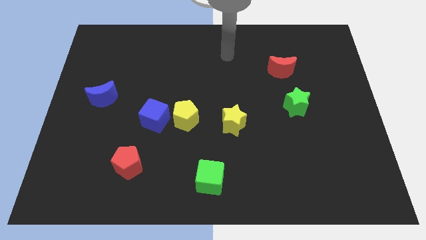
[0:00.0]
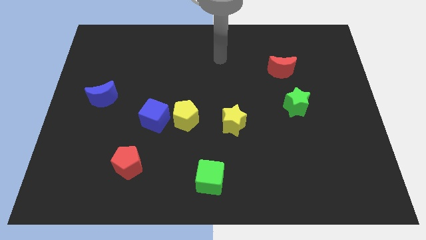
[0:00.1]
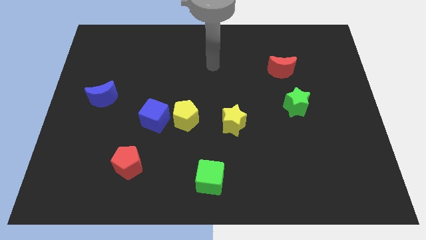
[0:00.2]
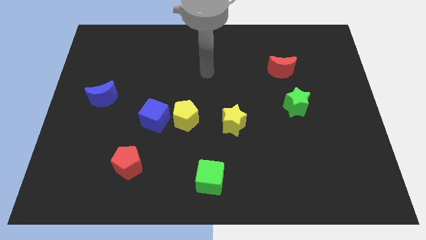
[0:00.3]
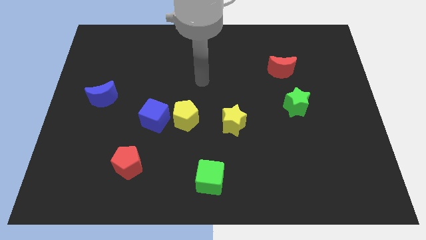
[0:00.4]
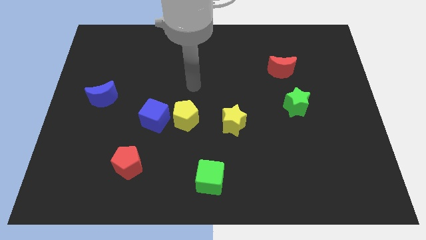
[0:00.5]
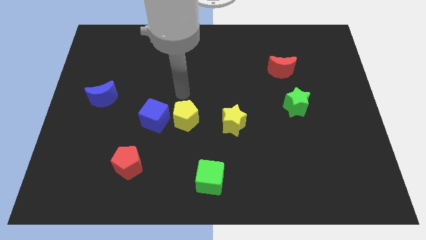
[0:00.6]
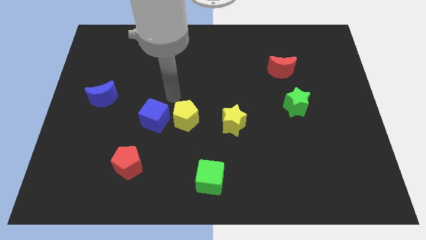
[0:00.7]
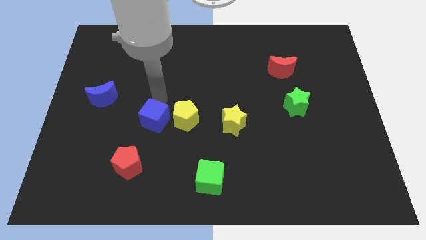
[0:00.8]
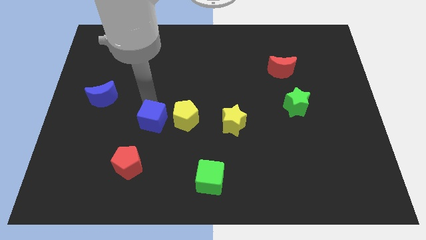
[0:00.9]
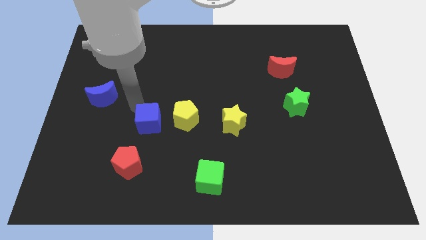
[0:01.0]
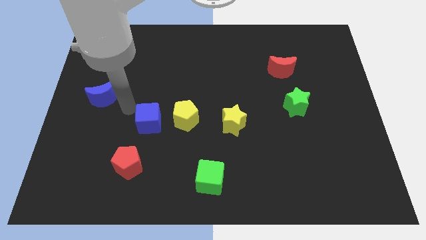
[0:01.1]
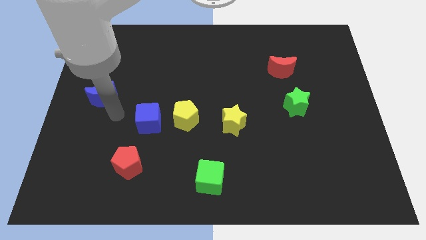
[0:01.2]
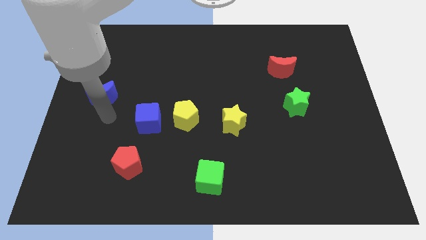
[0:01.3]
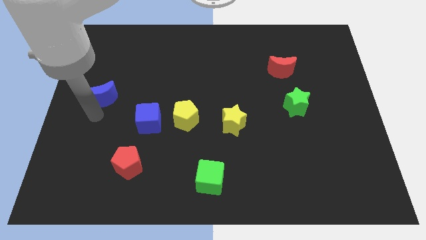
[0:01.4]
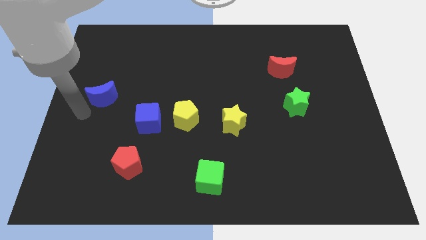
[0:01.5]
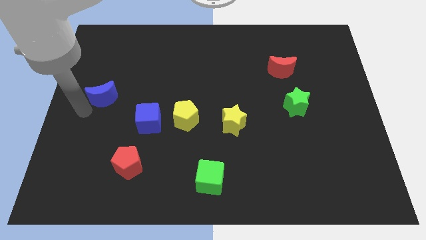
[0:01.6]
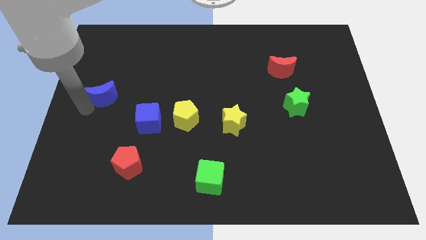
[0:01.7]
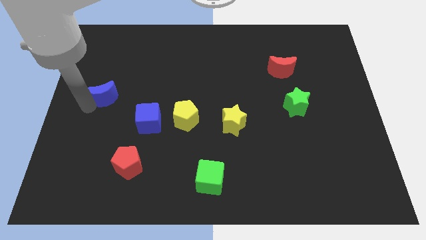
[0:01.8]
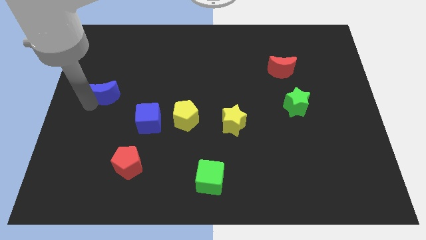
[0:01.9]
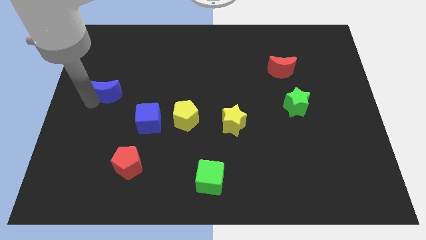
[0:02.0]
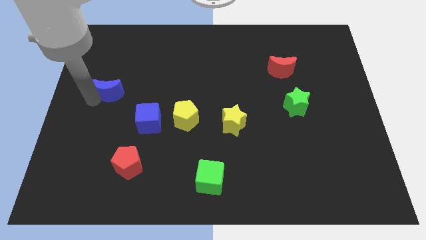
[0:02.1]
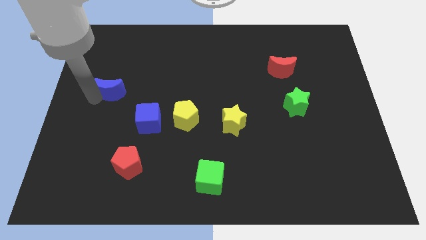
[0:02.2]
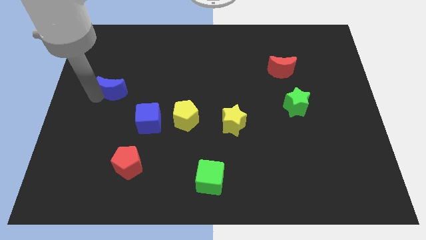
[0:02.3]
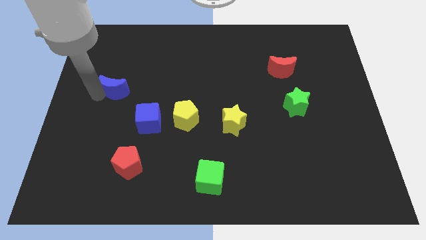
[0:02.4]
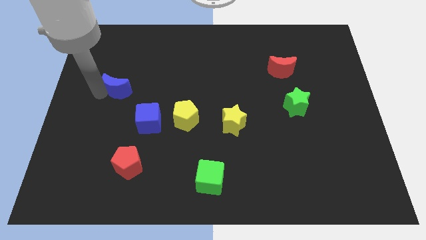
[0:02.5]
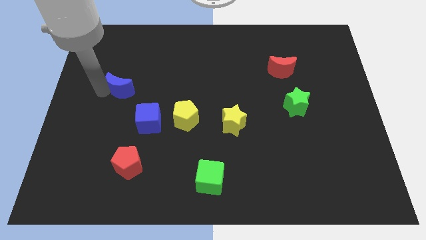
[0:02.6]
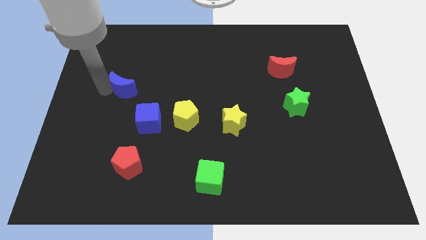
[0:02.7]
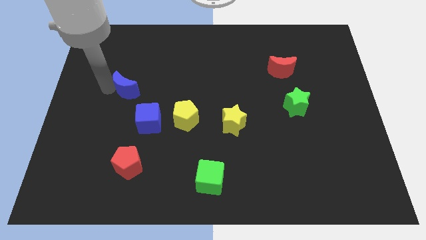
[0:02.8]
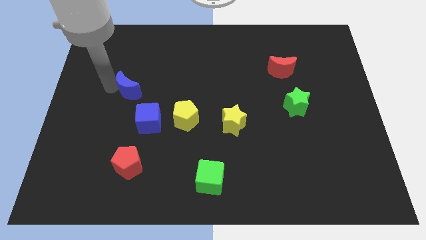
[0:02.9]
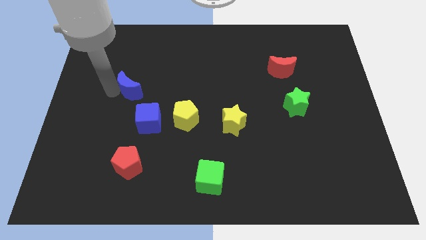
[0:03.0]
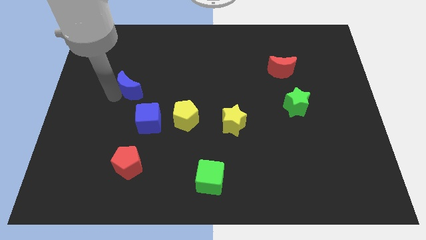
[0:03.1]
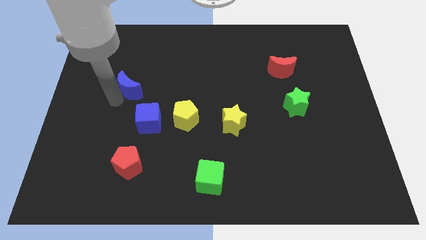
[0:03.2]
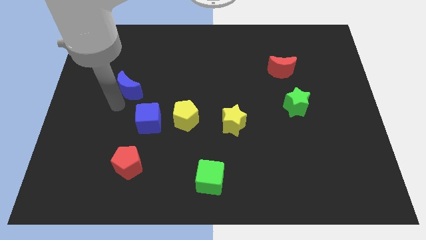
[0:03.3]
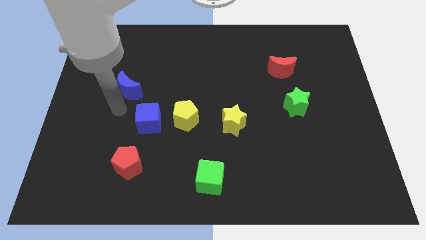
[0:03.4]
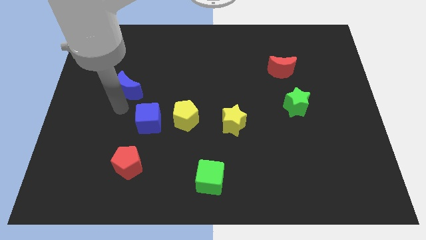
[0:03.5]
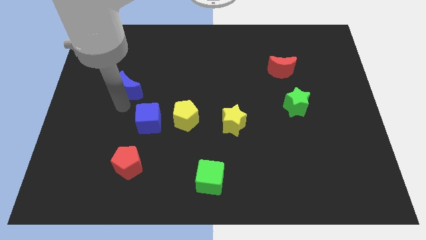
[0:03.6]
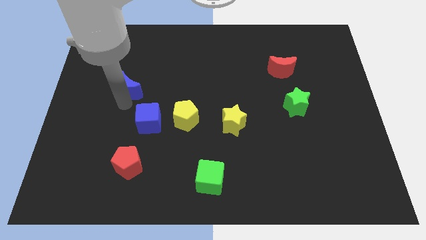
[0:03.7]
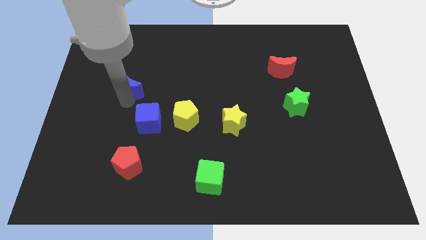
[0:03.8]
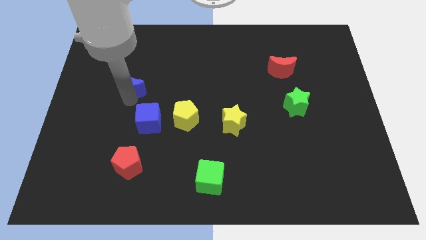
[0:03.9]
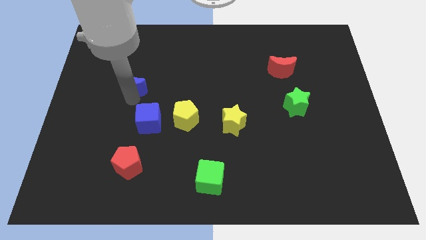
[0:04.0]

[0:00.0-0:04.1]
slide the blue moon a little bit diagonally up and to the right

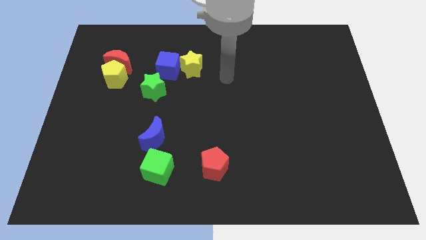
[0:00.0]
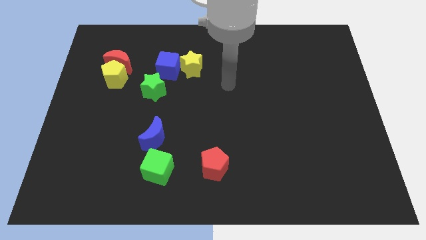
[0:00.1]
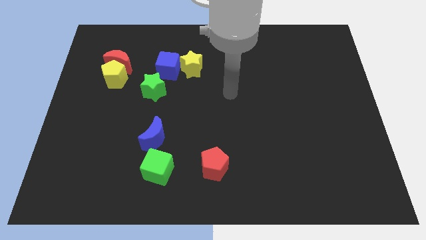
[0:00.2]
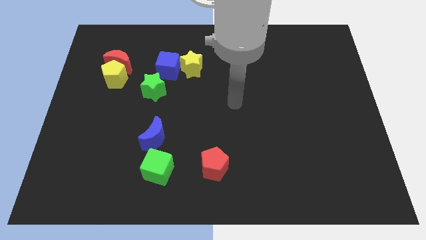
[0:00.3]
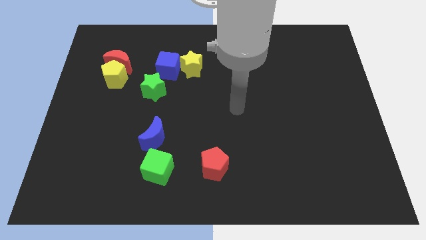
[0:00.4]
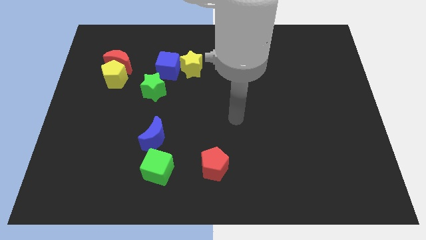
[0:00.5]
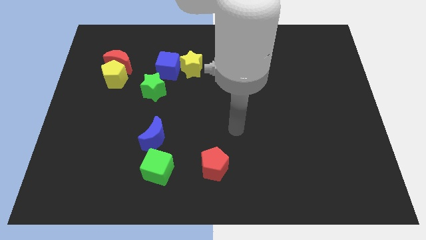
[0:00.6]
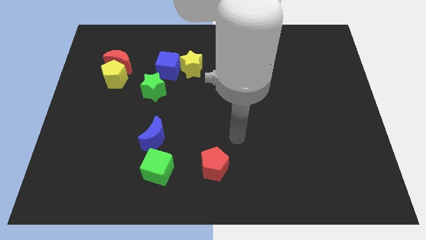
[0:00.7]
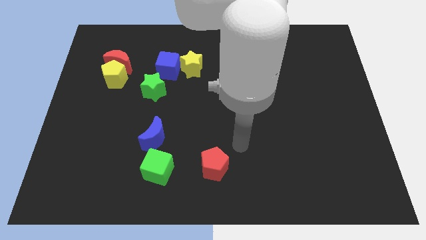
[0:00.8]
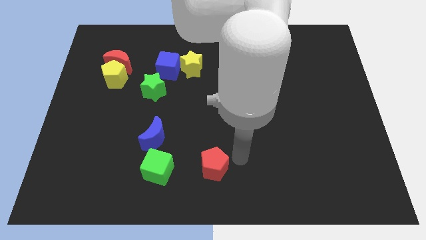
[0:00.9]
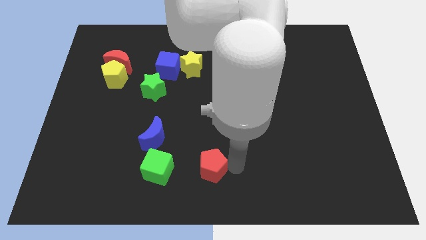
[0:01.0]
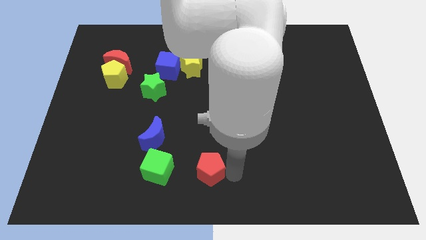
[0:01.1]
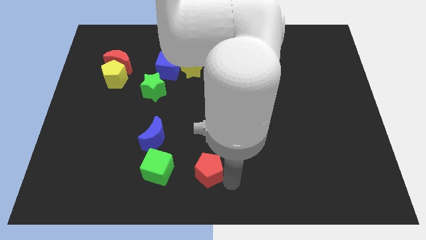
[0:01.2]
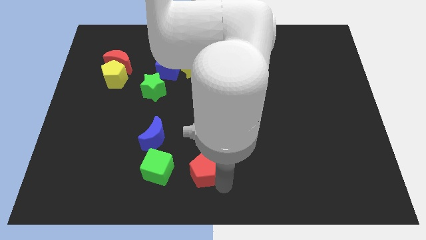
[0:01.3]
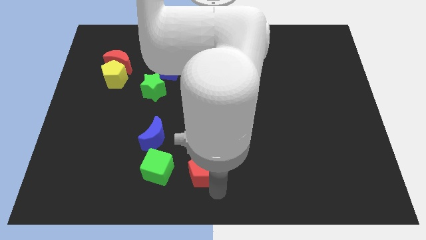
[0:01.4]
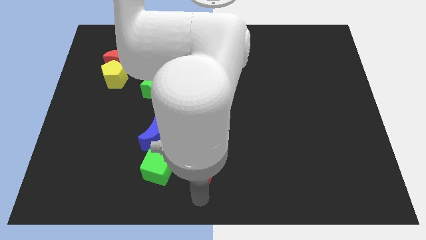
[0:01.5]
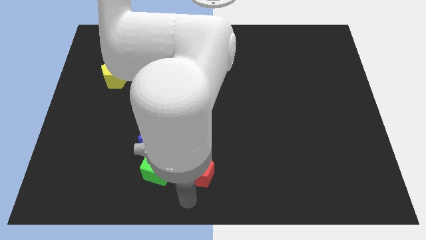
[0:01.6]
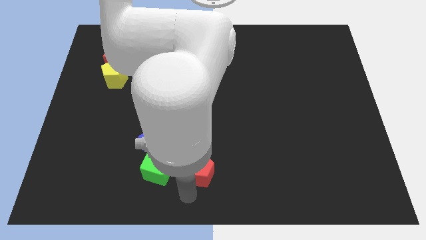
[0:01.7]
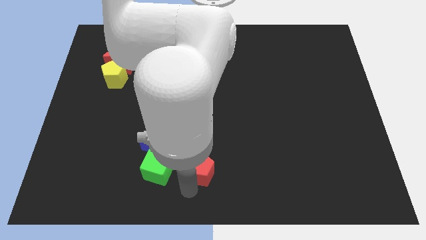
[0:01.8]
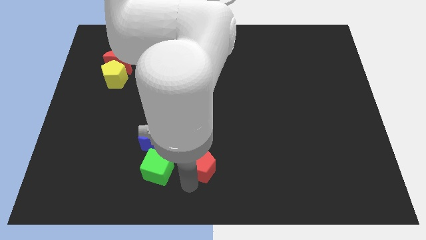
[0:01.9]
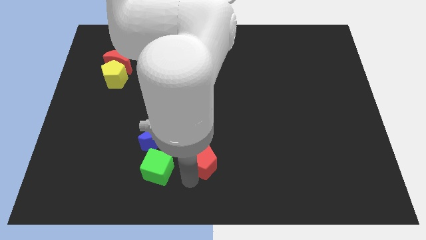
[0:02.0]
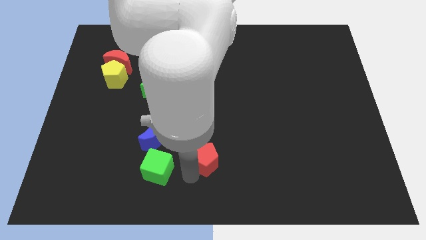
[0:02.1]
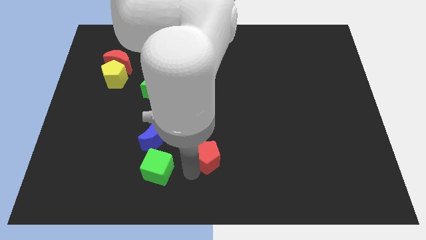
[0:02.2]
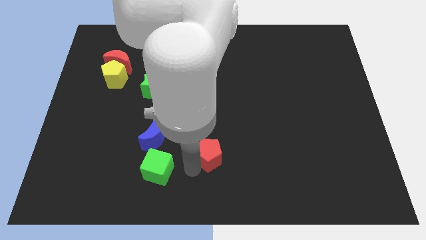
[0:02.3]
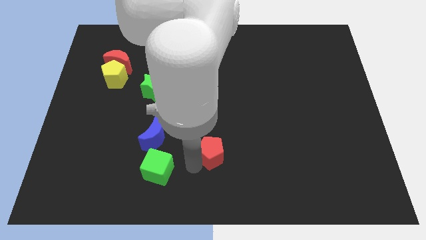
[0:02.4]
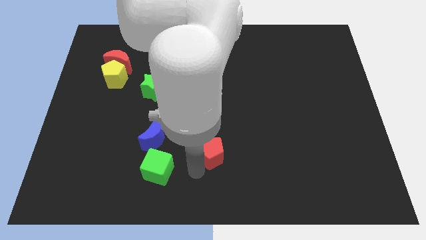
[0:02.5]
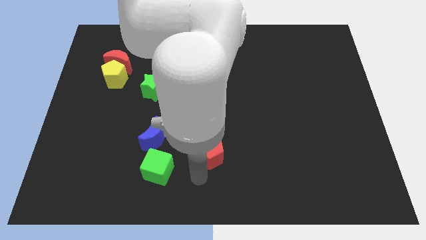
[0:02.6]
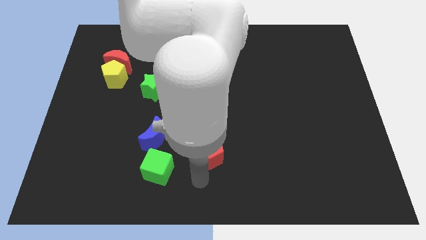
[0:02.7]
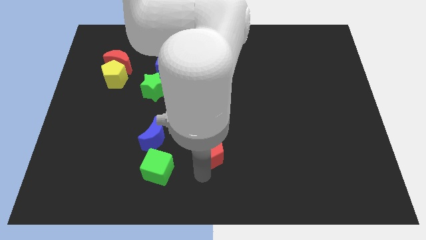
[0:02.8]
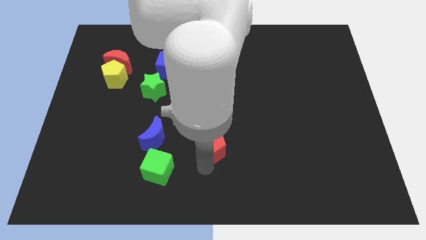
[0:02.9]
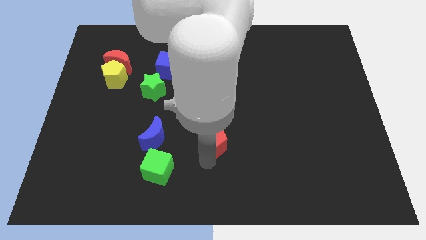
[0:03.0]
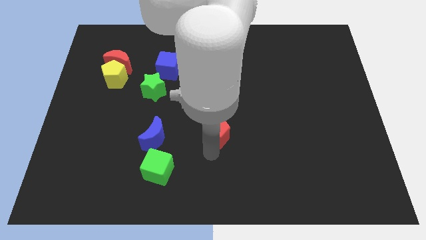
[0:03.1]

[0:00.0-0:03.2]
push the red pentagon up a little bit

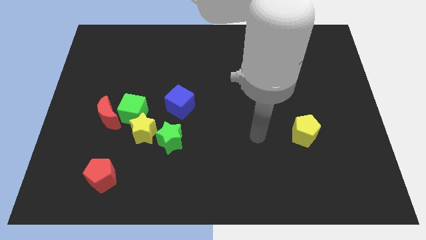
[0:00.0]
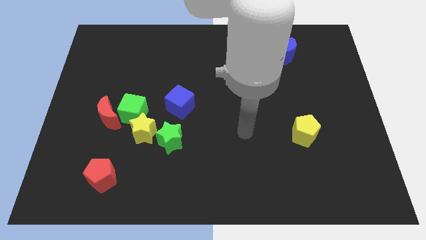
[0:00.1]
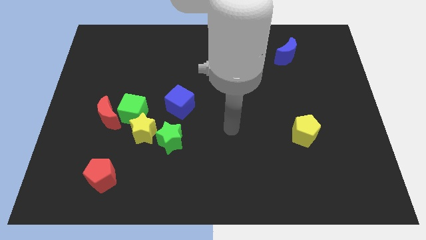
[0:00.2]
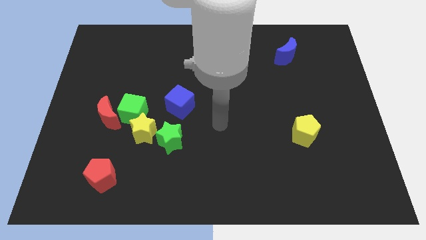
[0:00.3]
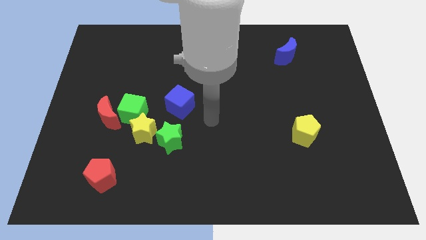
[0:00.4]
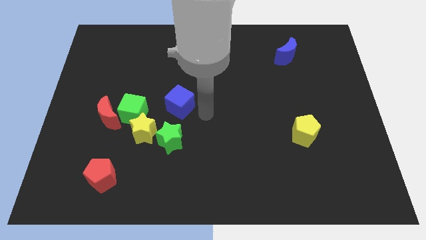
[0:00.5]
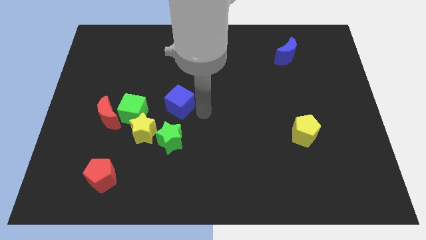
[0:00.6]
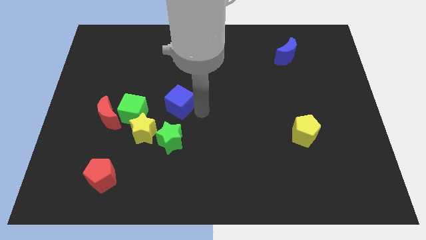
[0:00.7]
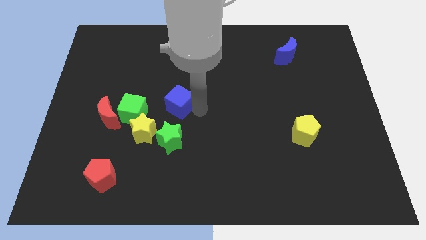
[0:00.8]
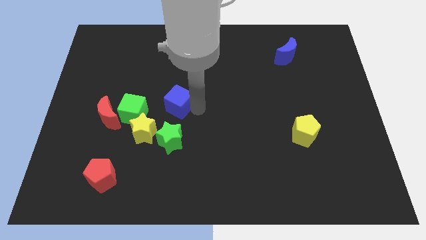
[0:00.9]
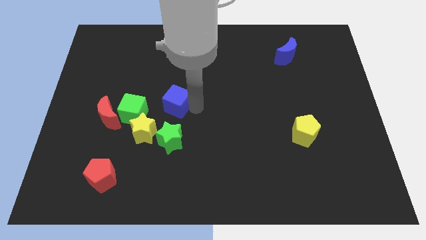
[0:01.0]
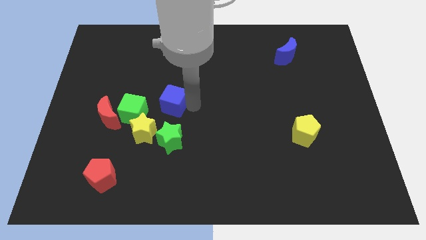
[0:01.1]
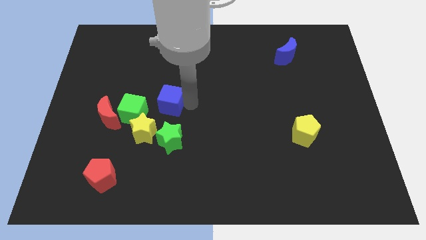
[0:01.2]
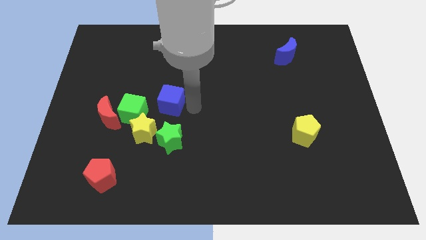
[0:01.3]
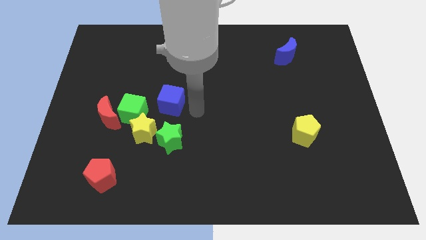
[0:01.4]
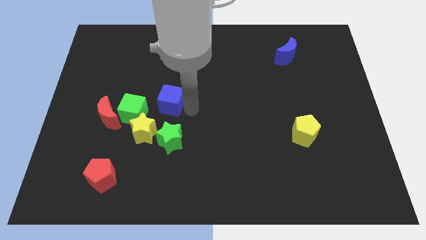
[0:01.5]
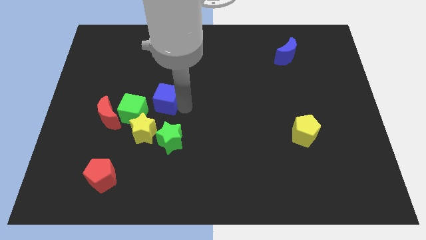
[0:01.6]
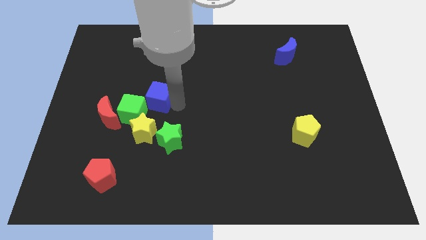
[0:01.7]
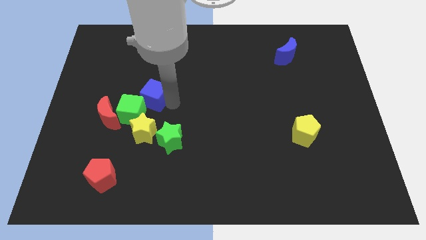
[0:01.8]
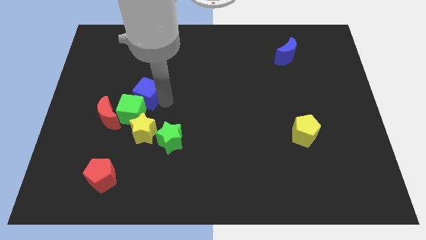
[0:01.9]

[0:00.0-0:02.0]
slide the blue cube left slightly
